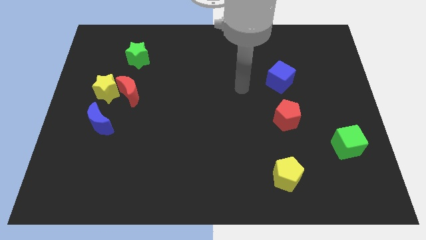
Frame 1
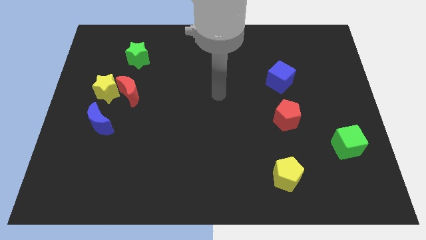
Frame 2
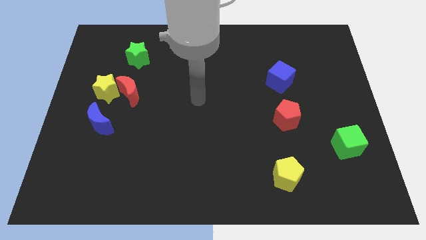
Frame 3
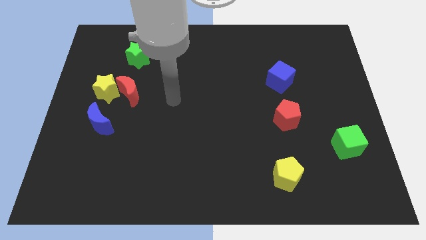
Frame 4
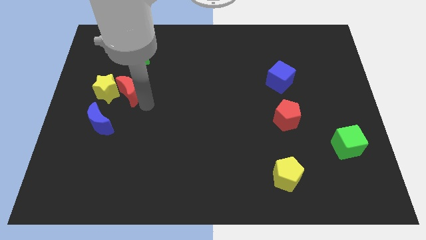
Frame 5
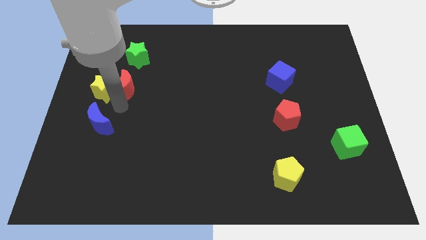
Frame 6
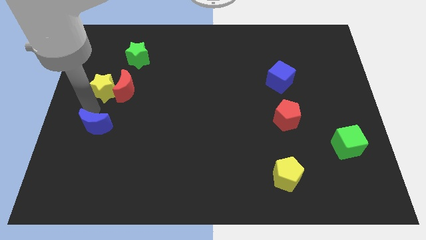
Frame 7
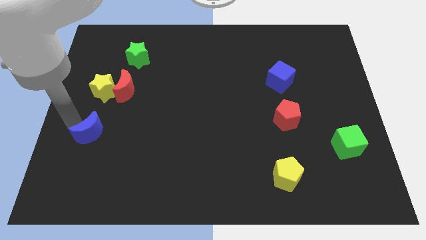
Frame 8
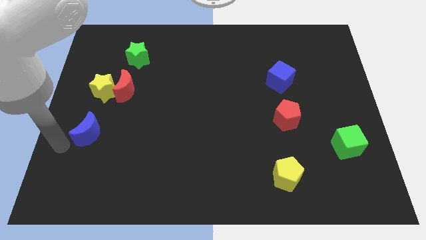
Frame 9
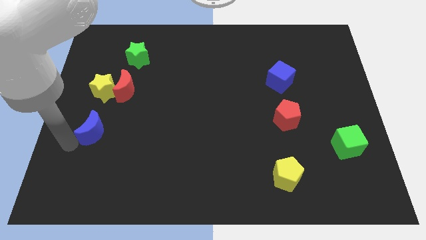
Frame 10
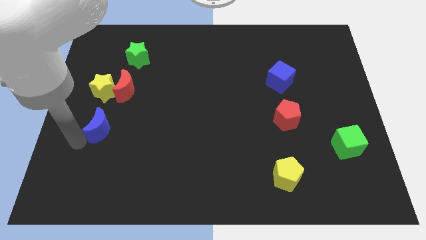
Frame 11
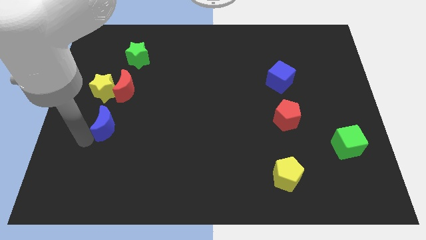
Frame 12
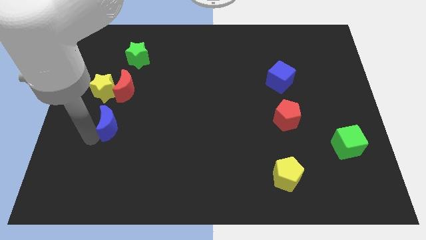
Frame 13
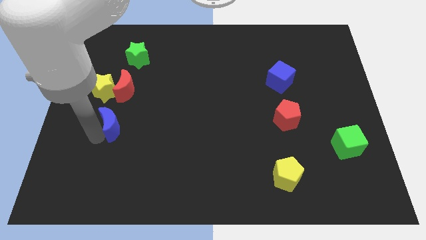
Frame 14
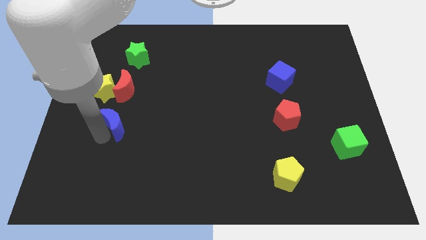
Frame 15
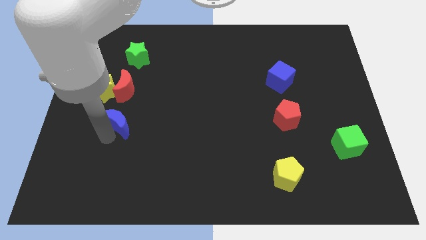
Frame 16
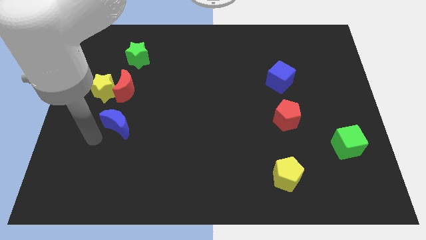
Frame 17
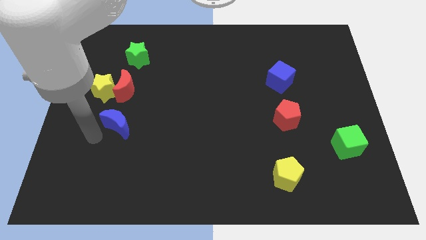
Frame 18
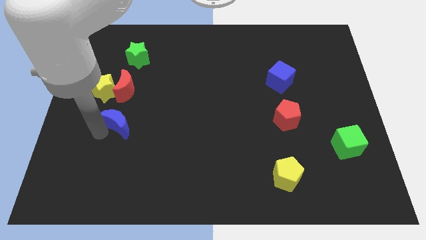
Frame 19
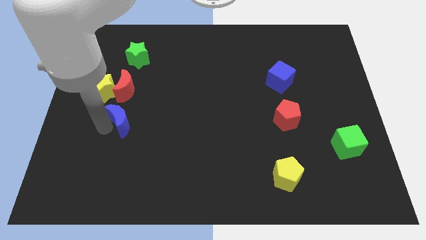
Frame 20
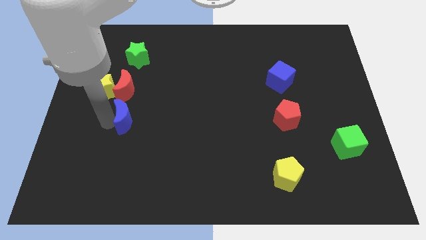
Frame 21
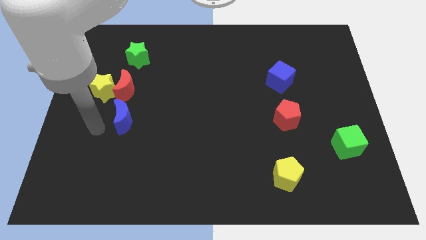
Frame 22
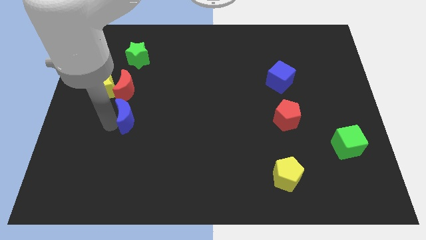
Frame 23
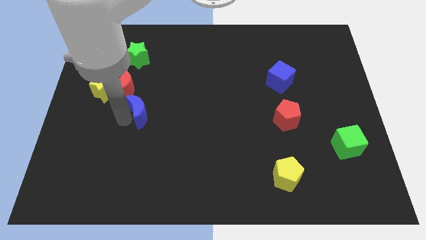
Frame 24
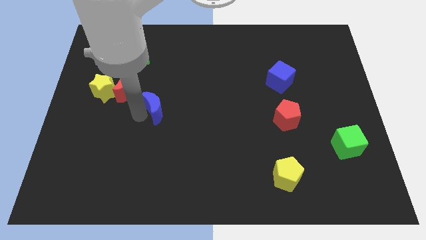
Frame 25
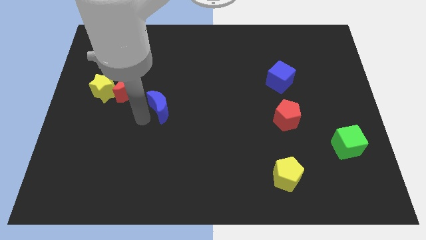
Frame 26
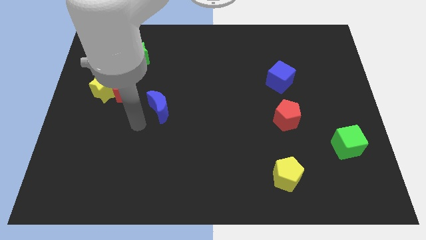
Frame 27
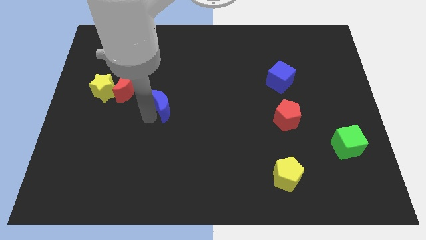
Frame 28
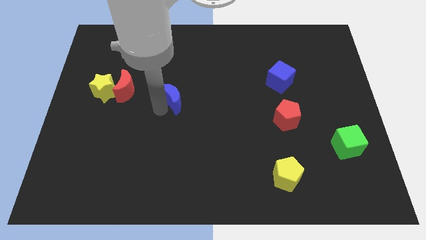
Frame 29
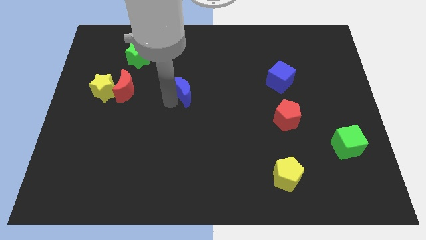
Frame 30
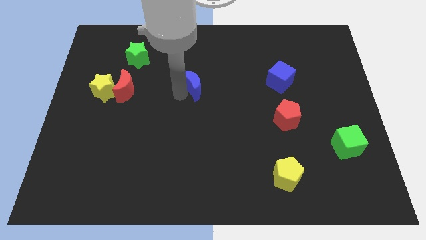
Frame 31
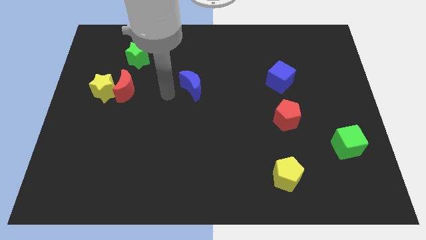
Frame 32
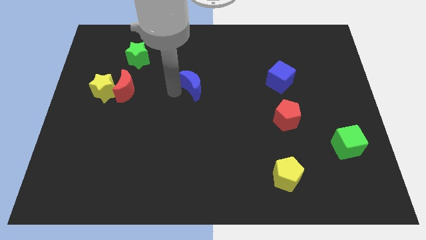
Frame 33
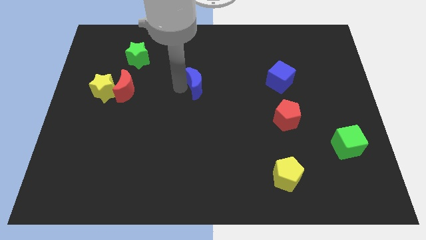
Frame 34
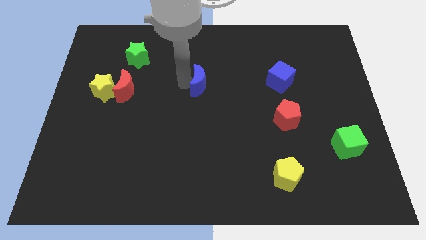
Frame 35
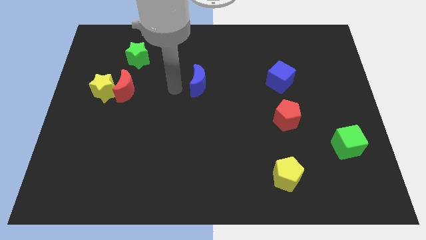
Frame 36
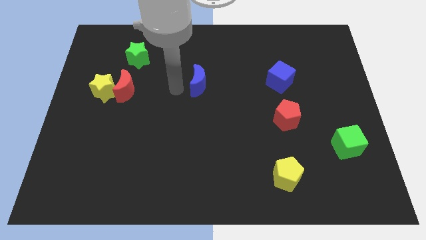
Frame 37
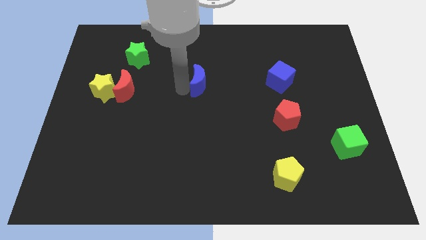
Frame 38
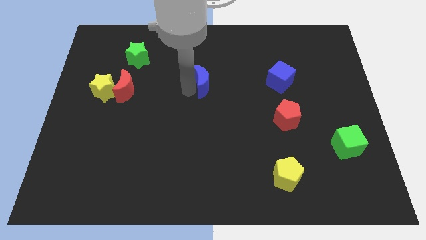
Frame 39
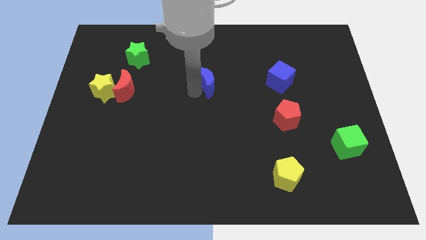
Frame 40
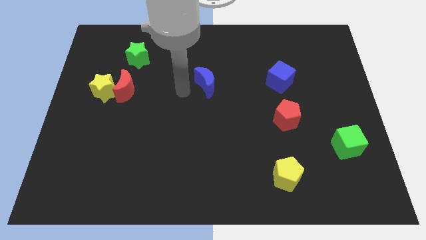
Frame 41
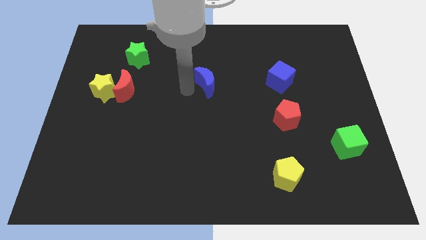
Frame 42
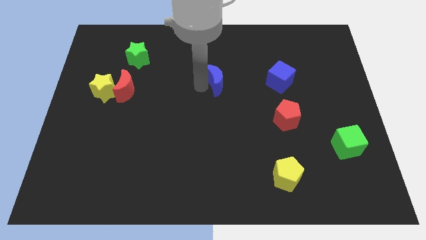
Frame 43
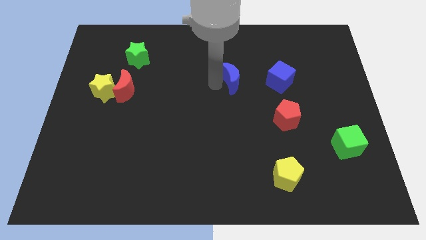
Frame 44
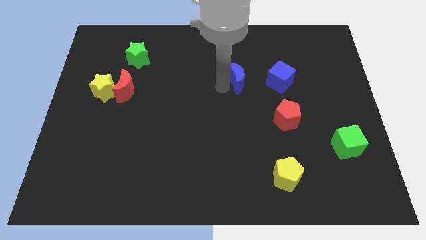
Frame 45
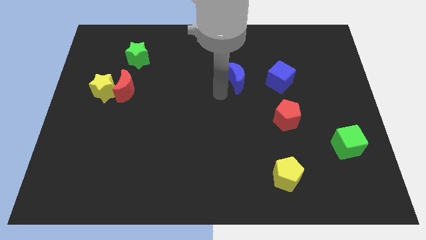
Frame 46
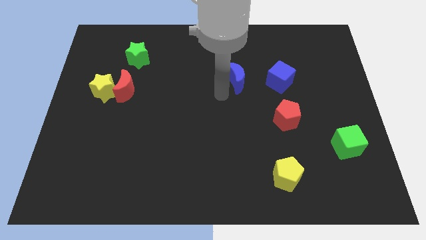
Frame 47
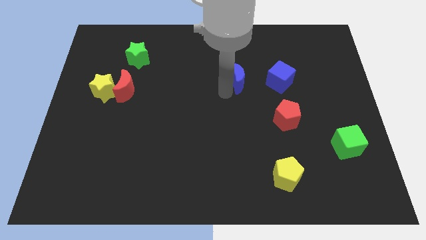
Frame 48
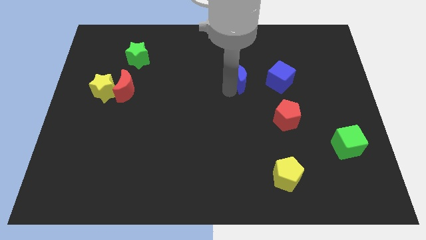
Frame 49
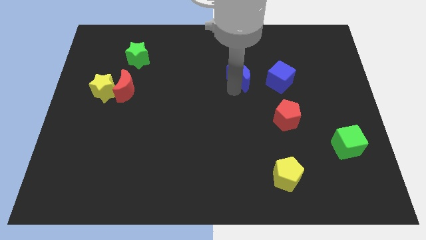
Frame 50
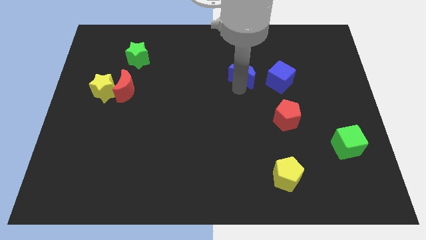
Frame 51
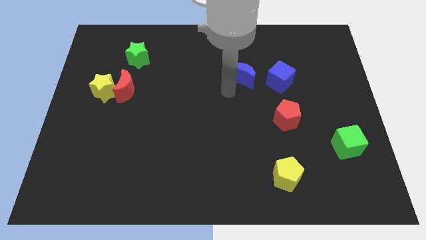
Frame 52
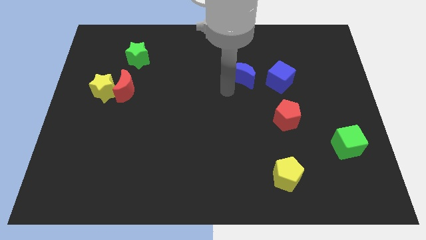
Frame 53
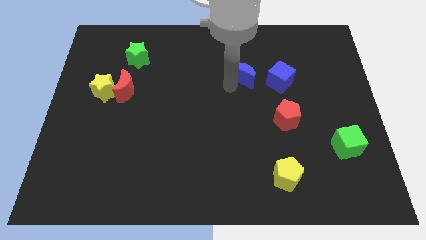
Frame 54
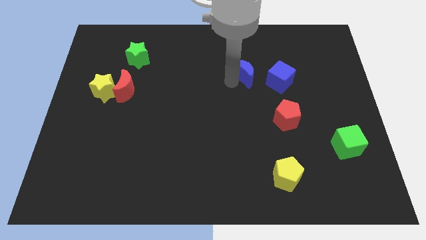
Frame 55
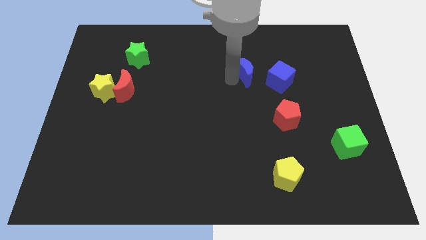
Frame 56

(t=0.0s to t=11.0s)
move the blue moon to the top left of the blue cube

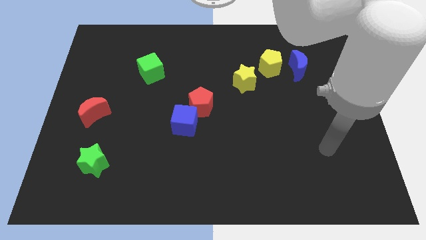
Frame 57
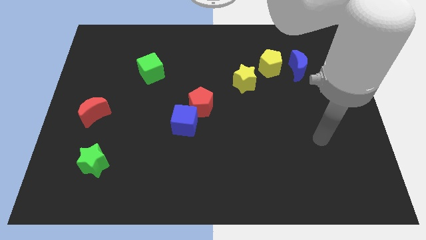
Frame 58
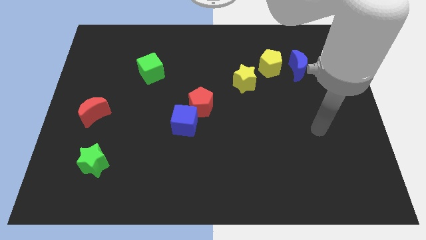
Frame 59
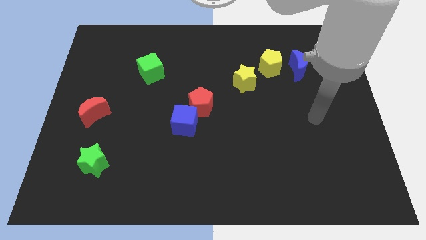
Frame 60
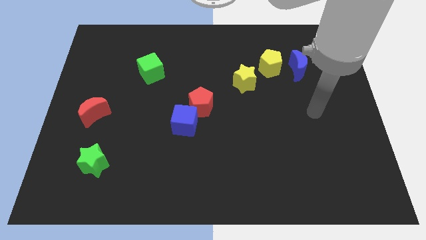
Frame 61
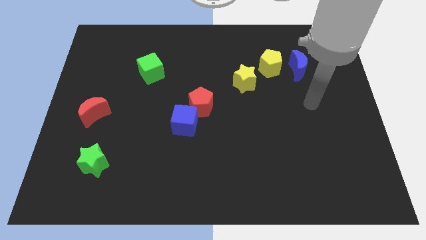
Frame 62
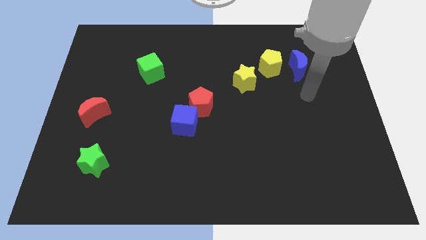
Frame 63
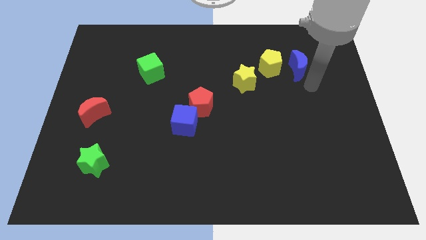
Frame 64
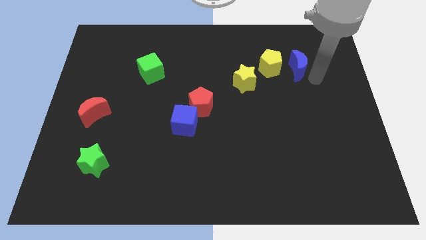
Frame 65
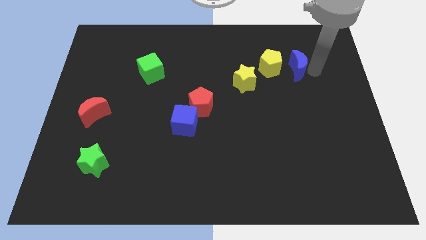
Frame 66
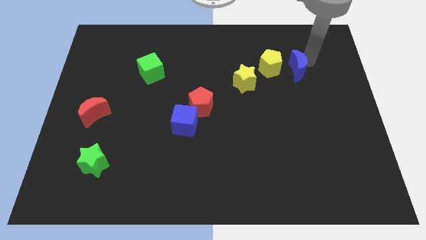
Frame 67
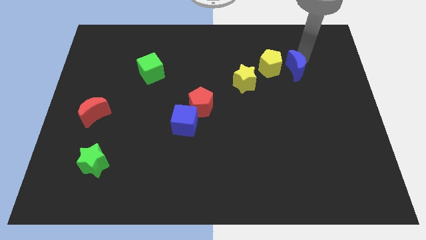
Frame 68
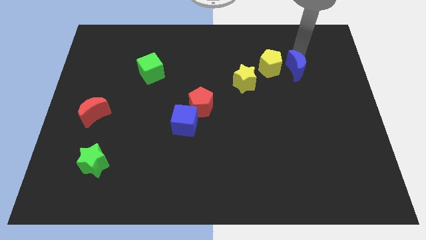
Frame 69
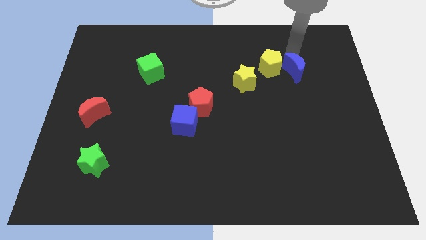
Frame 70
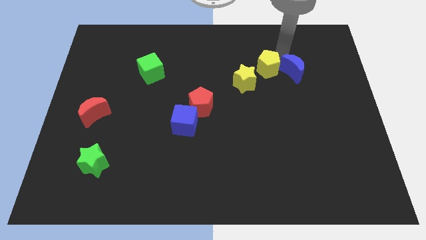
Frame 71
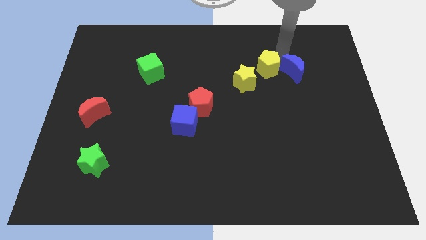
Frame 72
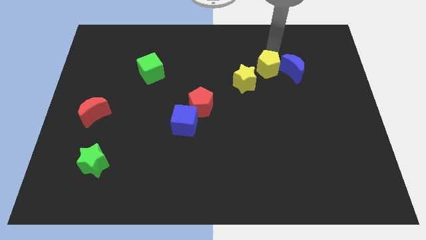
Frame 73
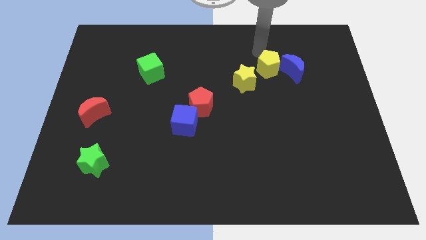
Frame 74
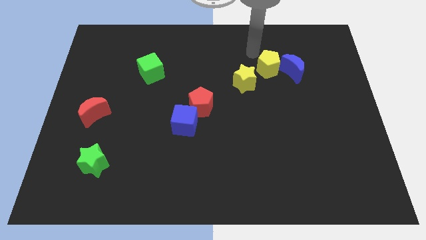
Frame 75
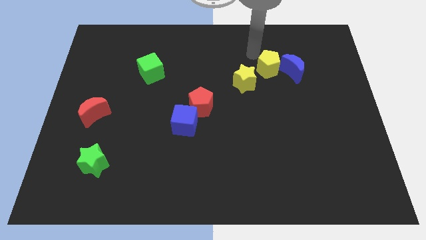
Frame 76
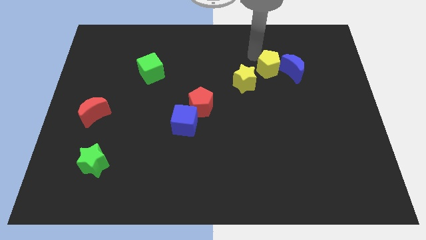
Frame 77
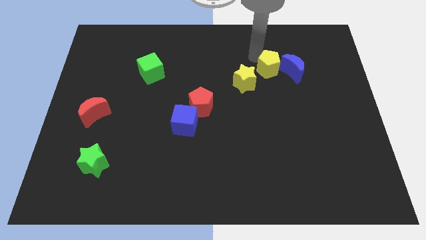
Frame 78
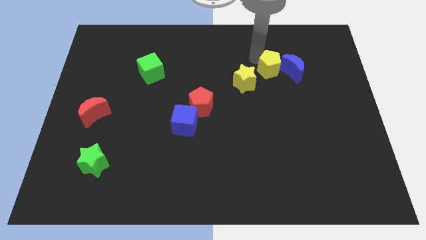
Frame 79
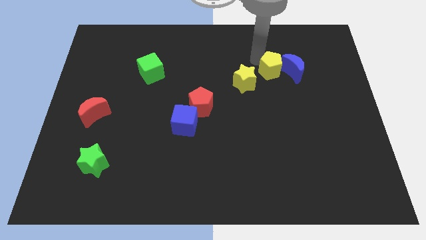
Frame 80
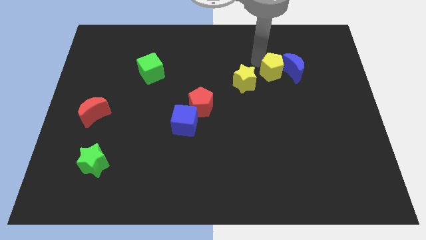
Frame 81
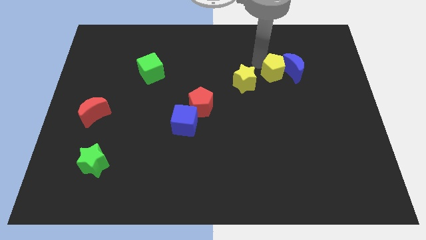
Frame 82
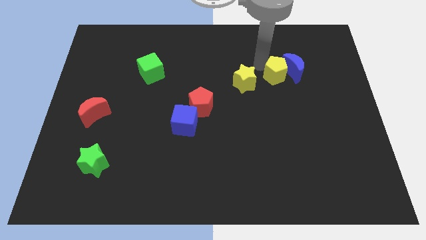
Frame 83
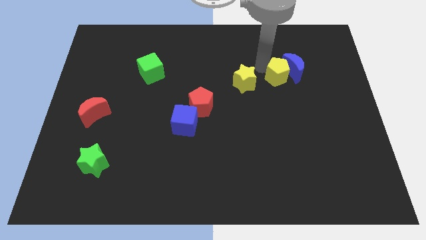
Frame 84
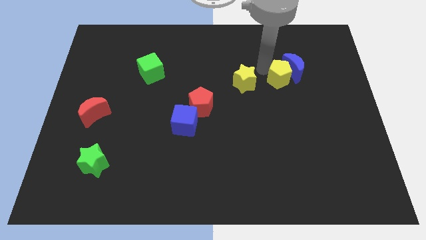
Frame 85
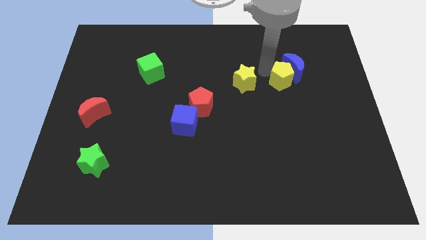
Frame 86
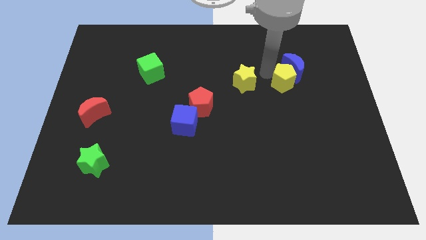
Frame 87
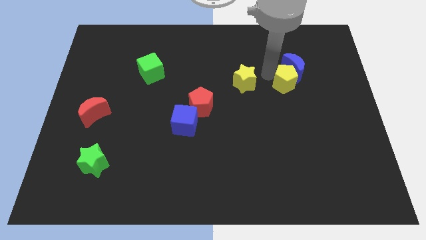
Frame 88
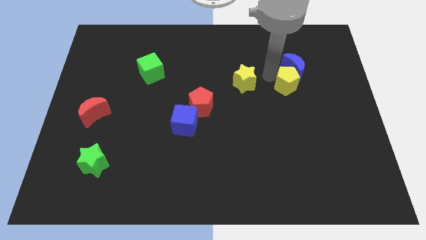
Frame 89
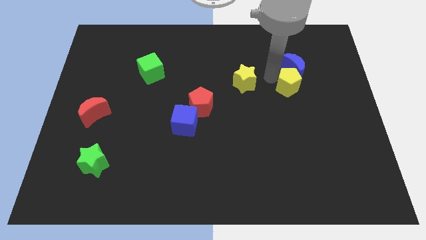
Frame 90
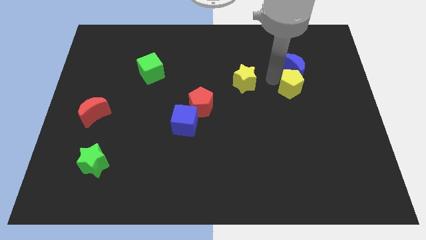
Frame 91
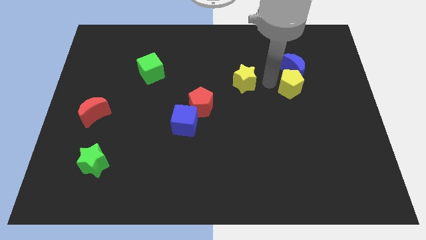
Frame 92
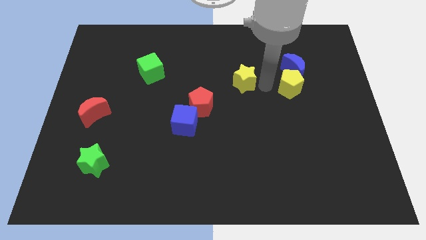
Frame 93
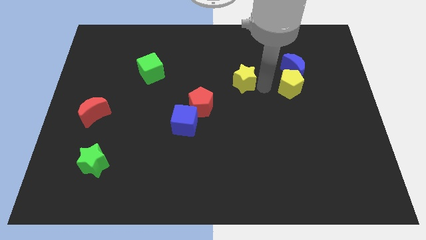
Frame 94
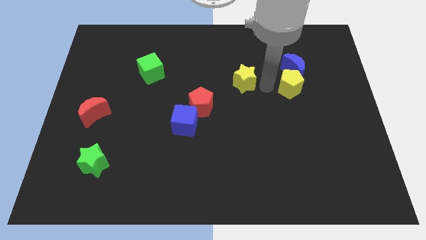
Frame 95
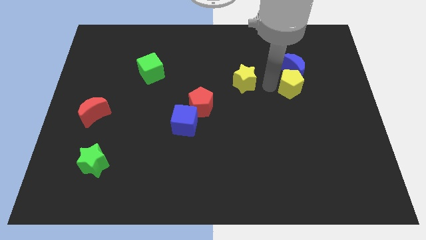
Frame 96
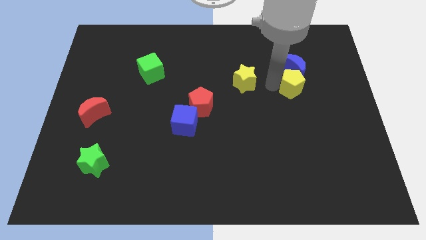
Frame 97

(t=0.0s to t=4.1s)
slide the yellow pentagon to the bottom right side of the blue moon
